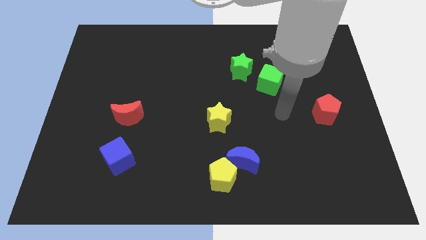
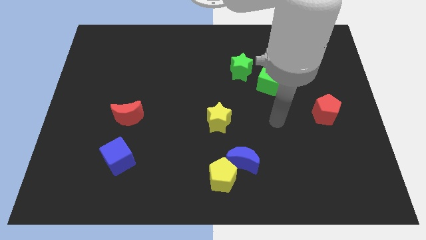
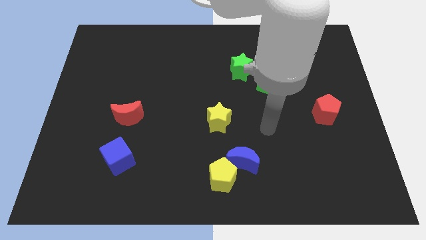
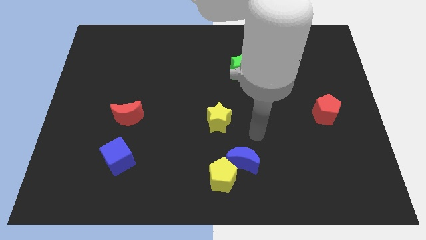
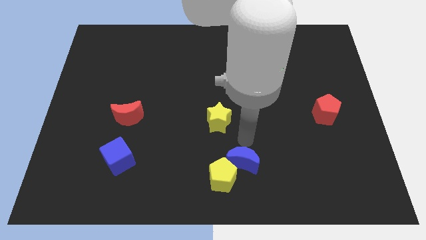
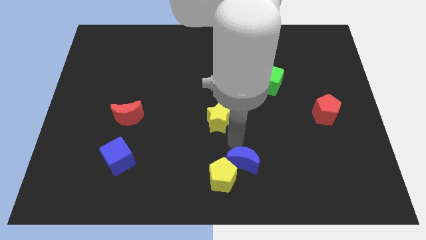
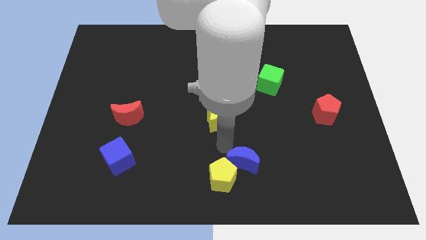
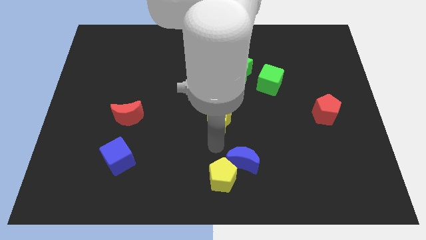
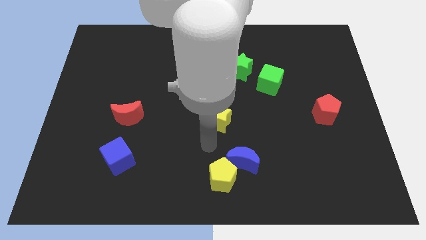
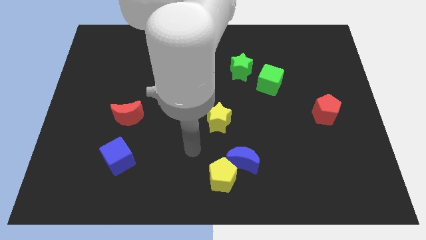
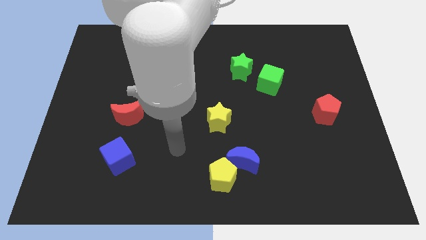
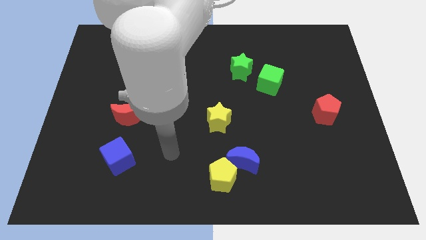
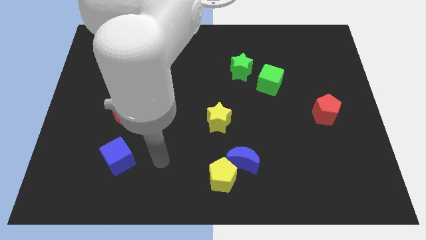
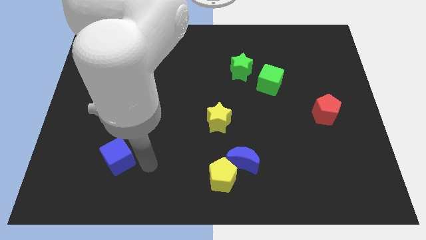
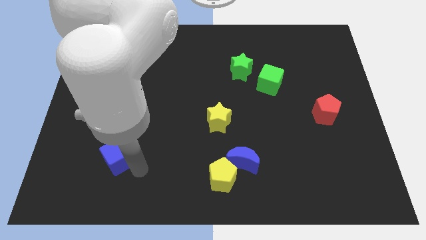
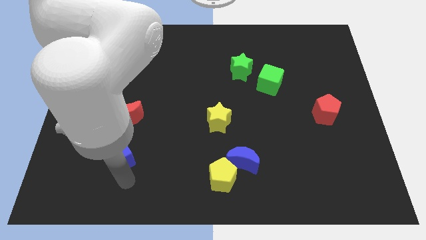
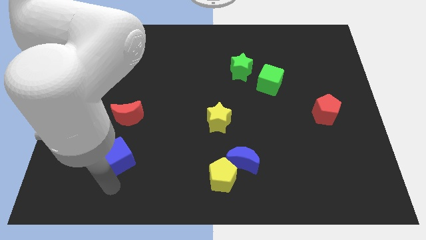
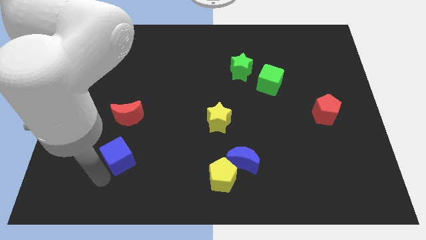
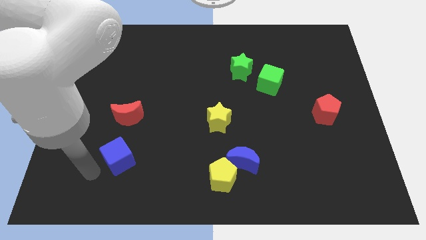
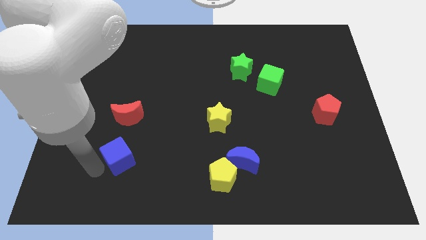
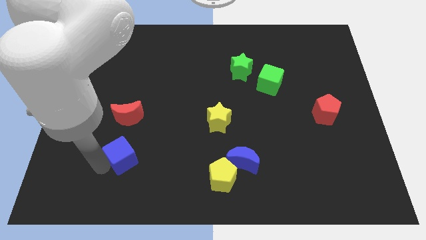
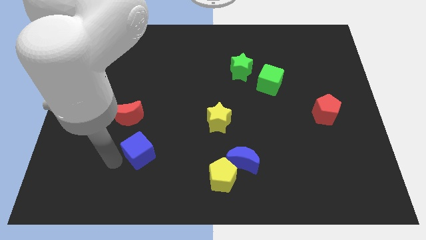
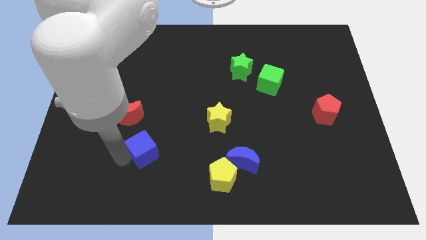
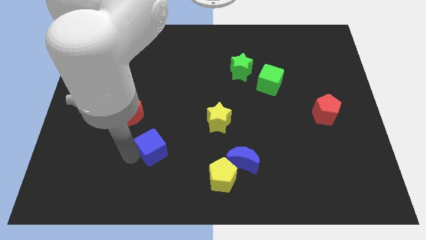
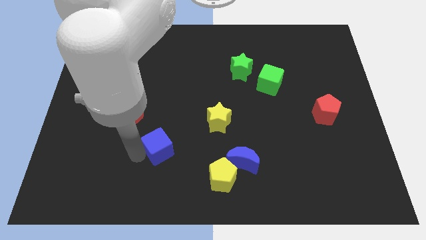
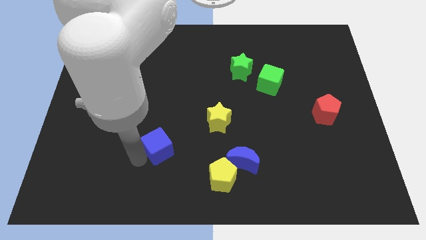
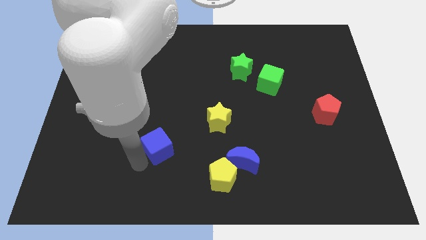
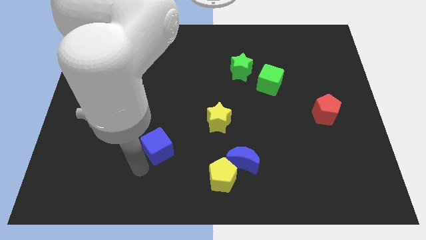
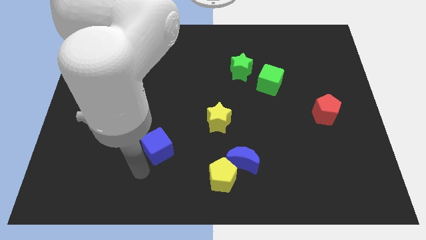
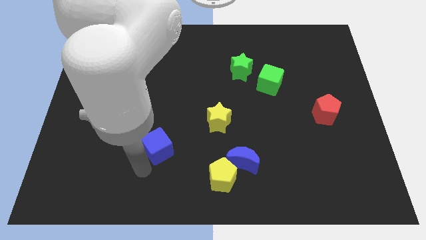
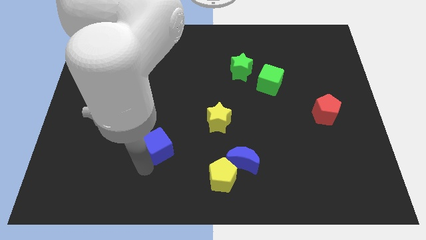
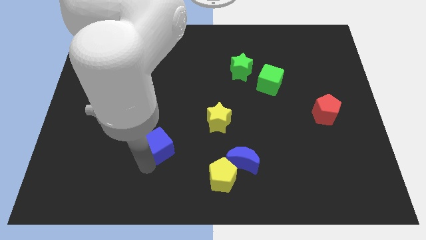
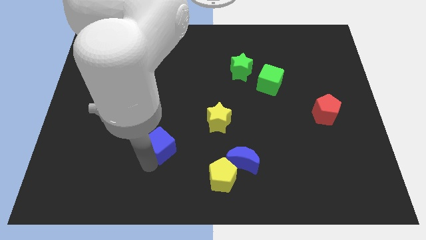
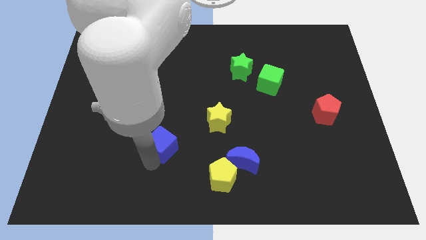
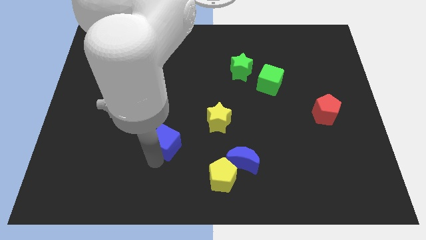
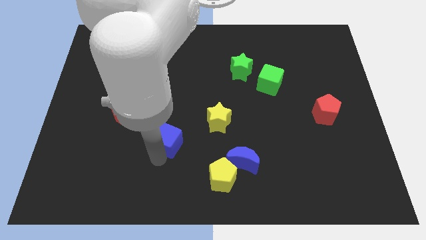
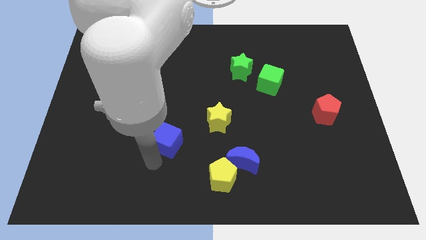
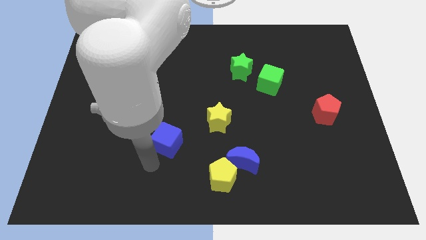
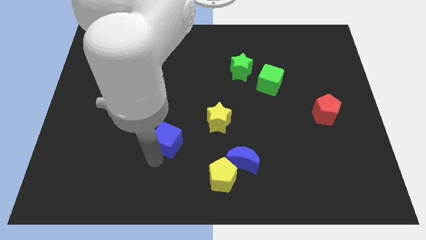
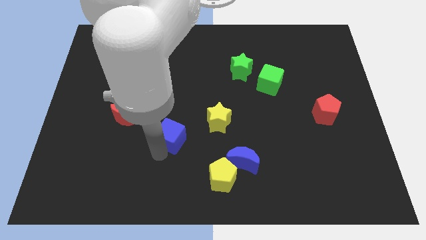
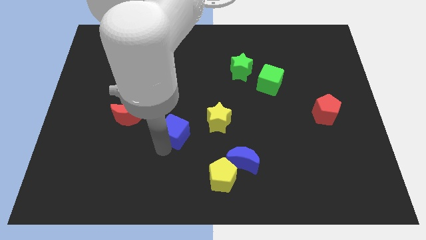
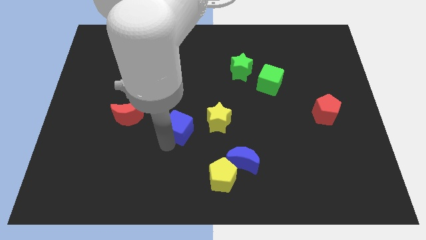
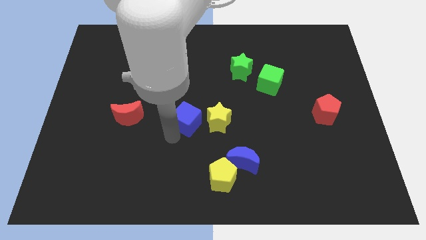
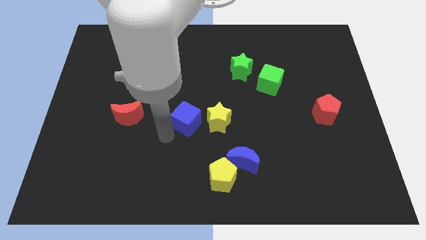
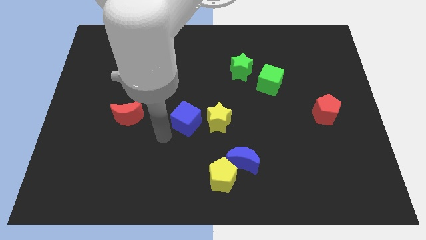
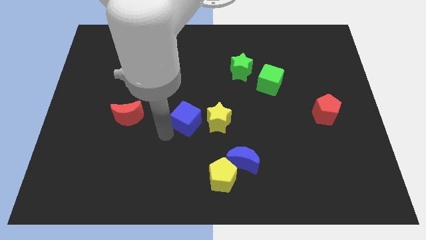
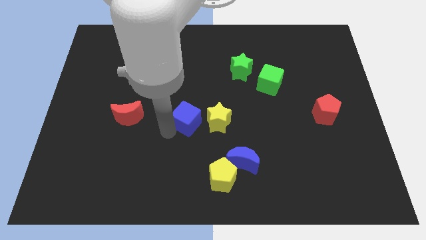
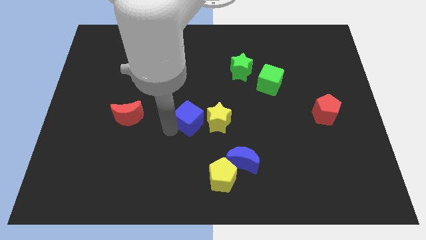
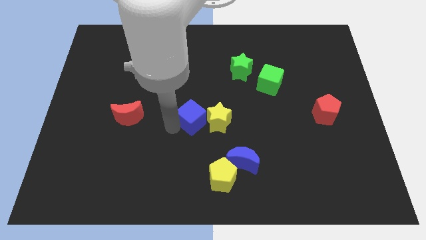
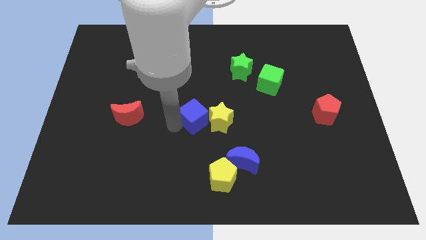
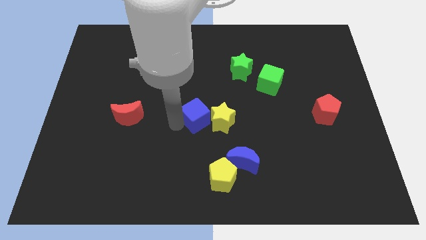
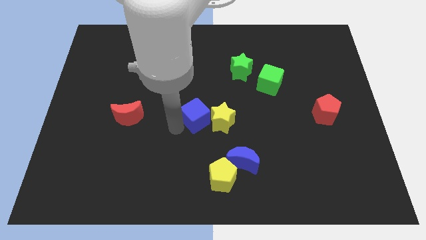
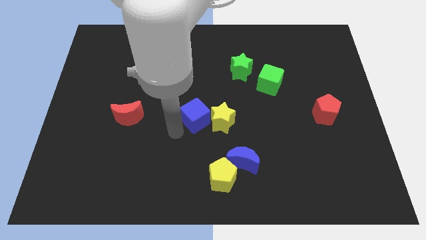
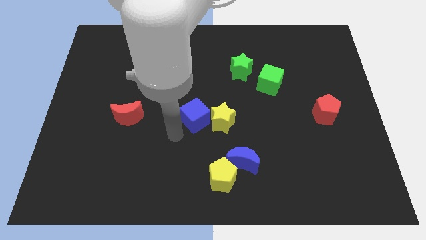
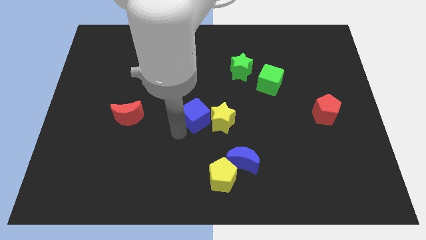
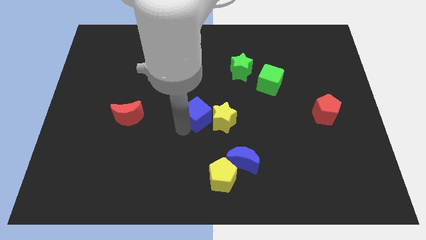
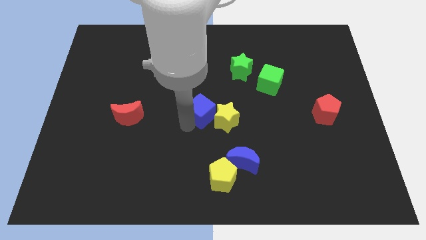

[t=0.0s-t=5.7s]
slide the blue cube upwards and right

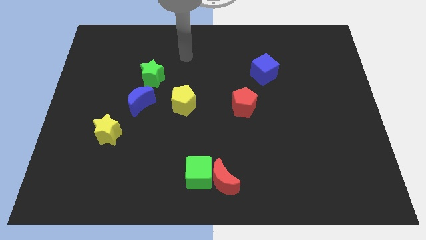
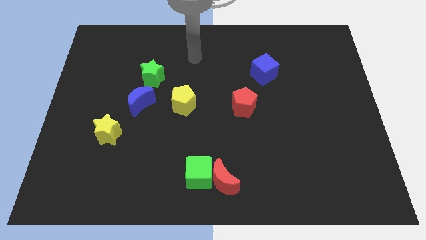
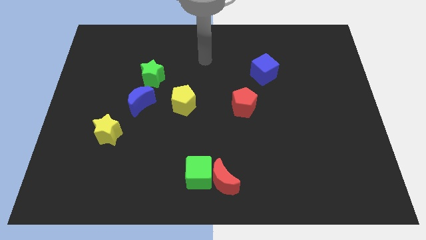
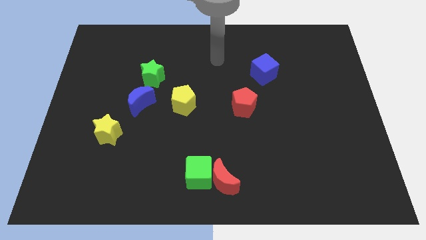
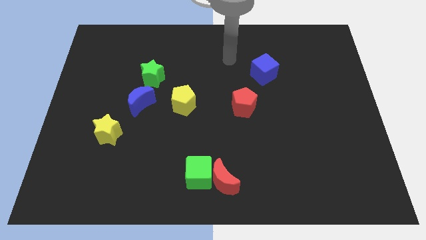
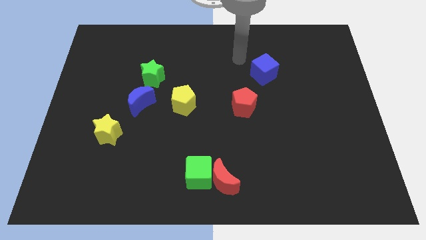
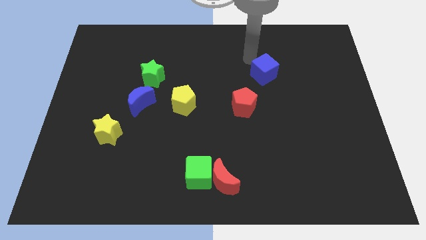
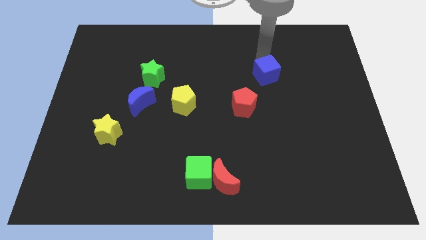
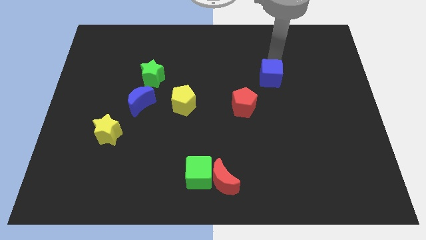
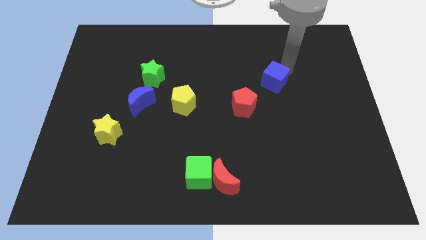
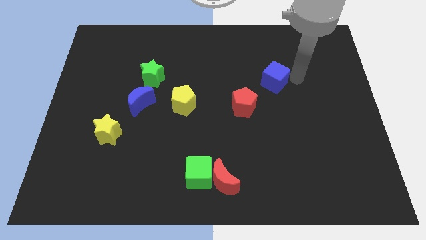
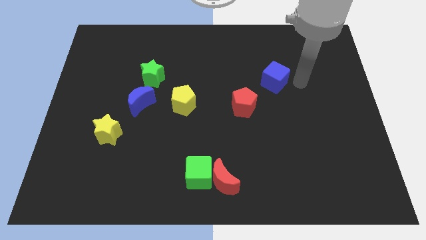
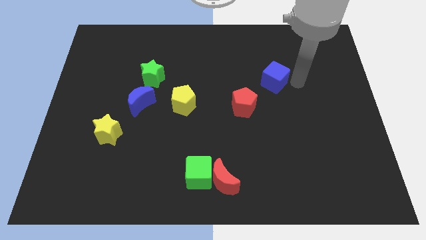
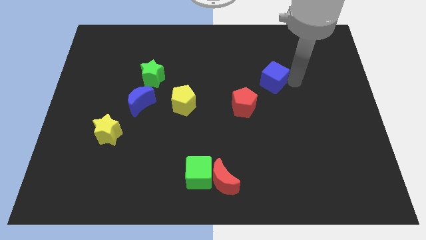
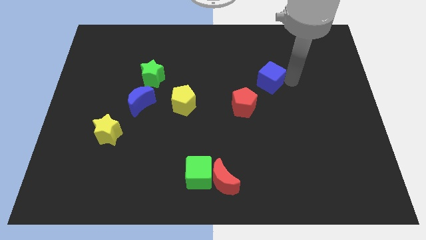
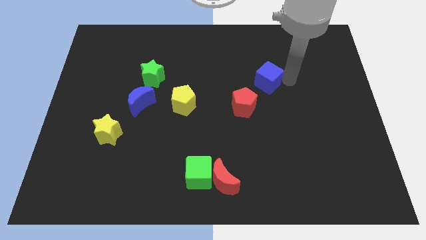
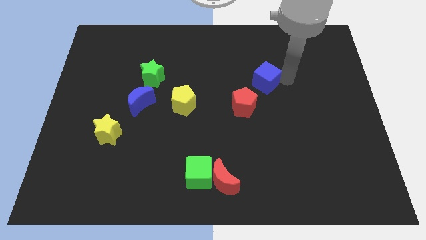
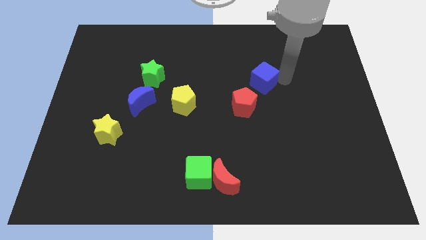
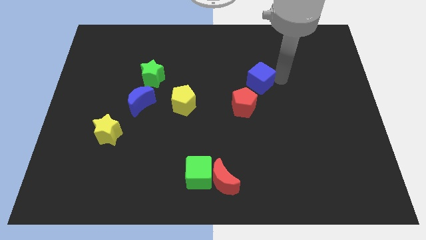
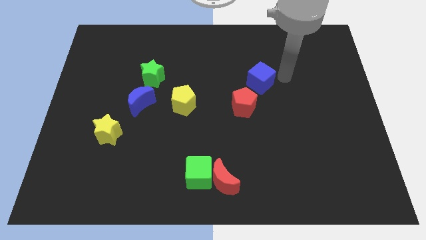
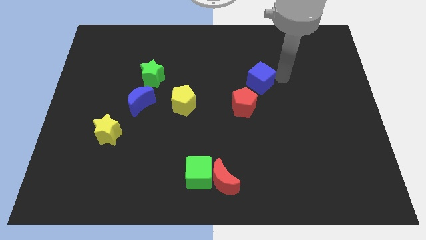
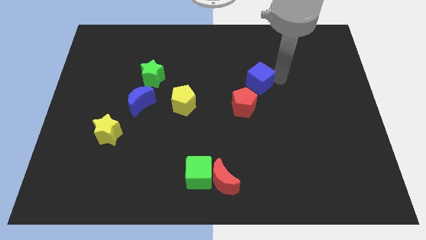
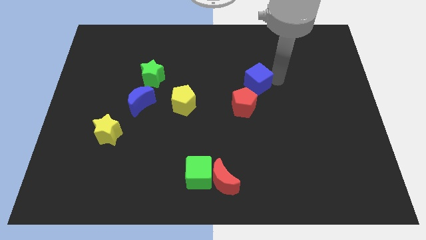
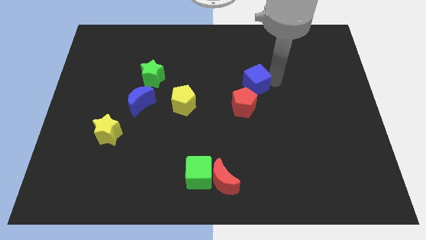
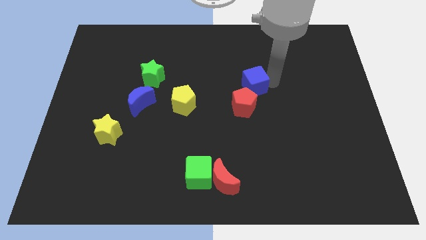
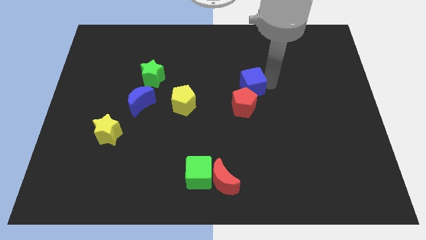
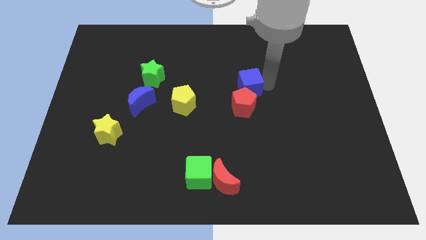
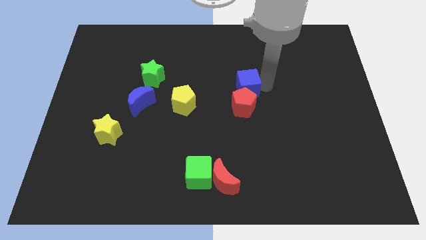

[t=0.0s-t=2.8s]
slide the blue cube a little downwards and left
